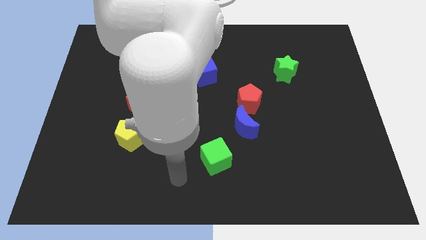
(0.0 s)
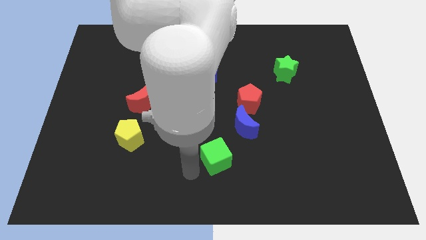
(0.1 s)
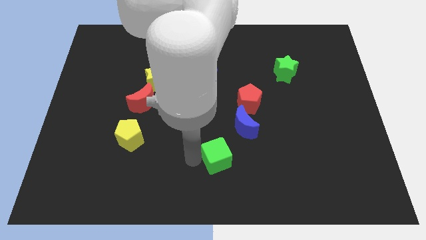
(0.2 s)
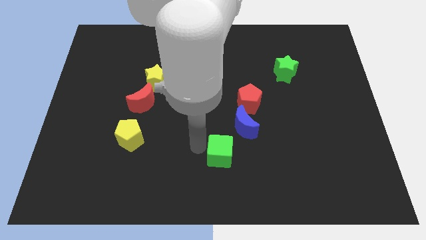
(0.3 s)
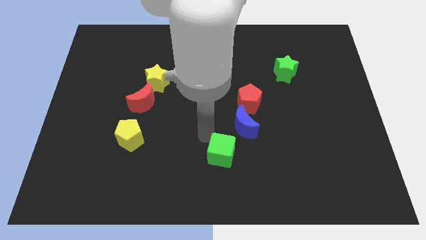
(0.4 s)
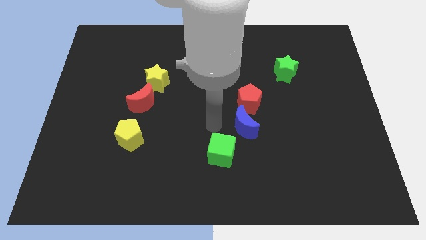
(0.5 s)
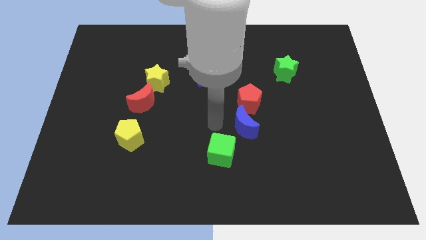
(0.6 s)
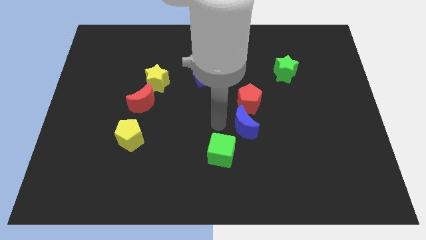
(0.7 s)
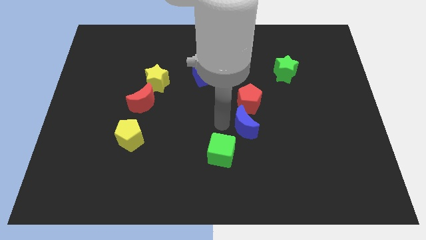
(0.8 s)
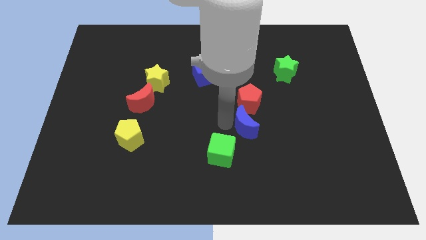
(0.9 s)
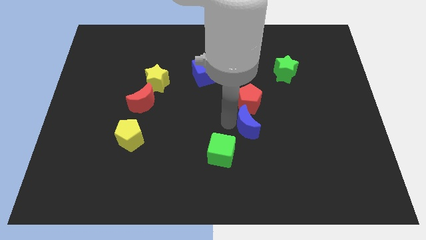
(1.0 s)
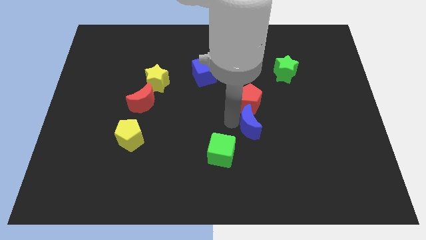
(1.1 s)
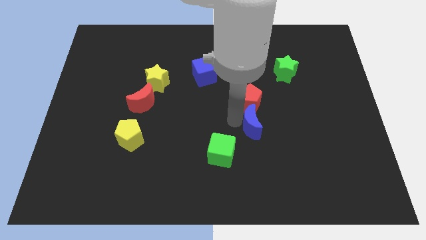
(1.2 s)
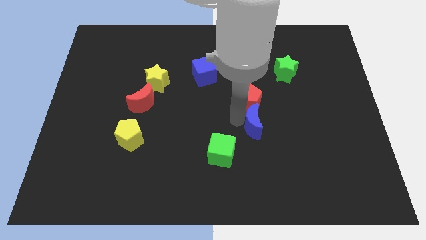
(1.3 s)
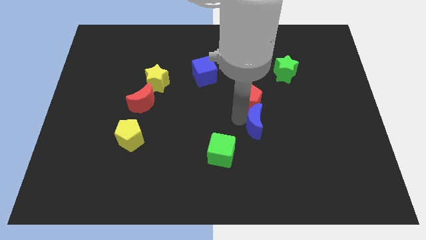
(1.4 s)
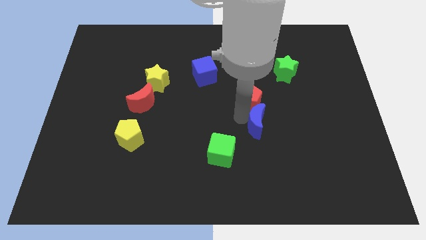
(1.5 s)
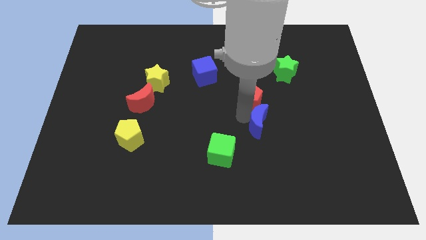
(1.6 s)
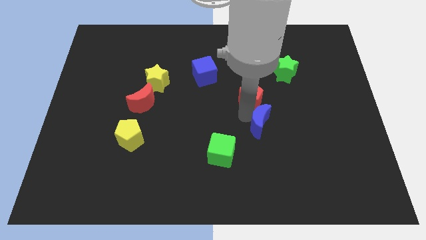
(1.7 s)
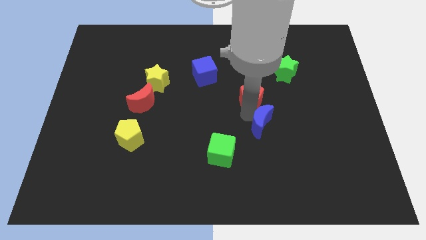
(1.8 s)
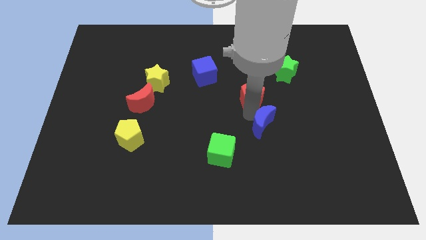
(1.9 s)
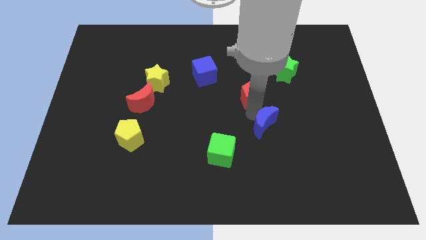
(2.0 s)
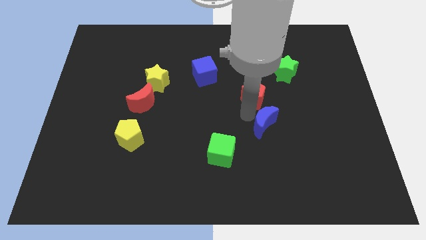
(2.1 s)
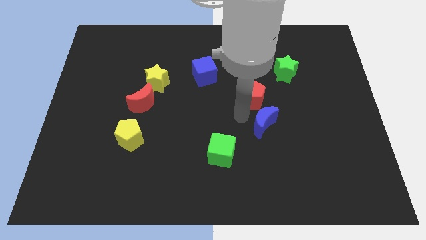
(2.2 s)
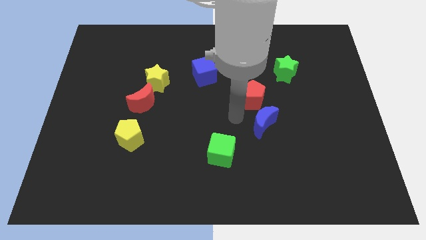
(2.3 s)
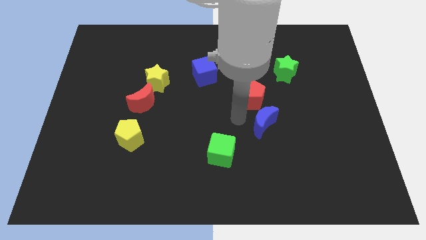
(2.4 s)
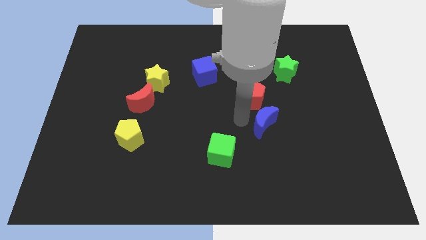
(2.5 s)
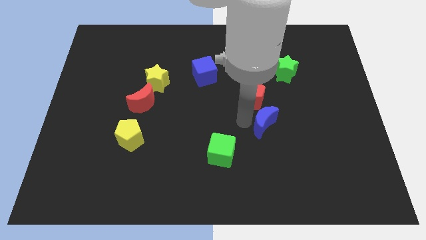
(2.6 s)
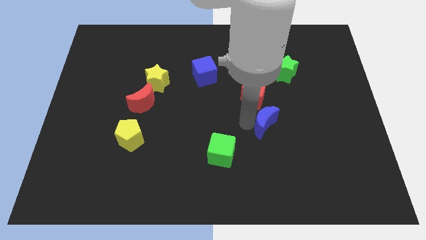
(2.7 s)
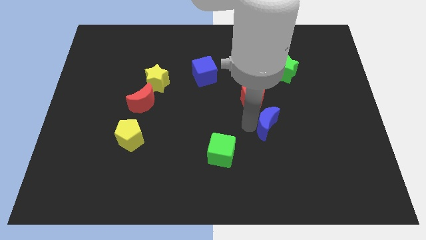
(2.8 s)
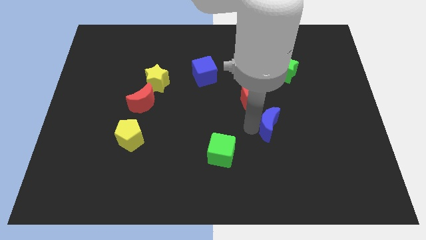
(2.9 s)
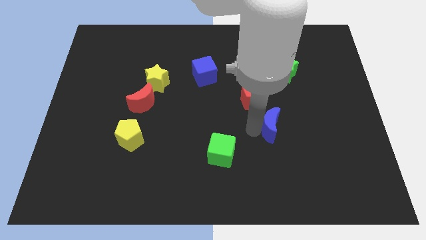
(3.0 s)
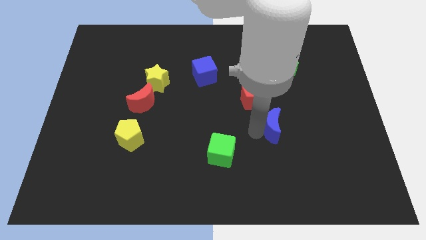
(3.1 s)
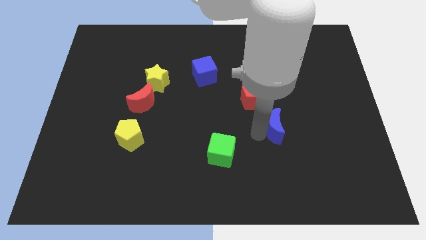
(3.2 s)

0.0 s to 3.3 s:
move the blue moon a little bit right

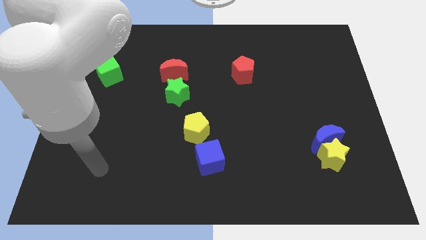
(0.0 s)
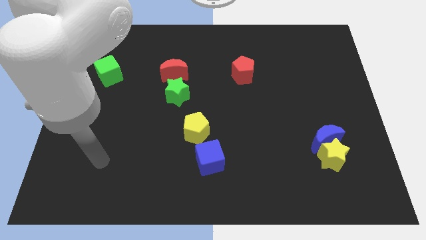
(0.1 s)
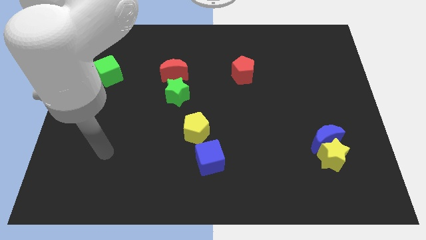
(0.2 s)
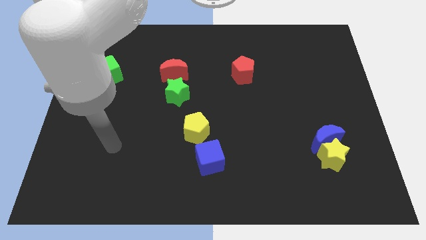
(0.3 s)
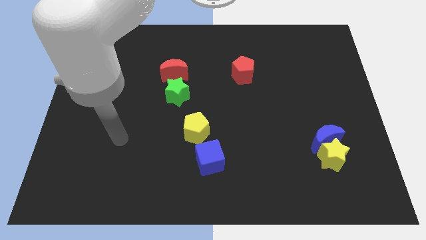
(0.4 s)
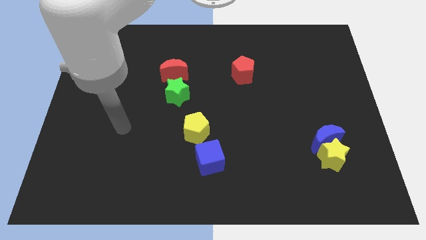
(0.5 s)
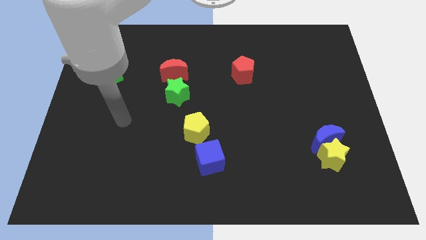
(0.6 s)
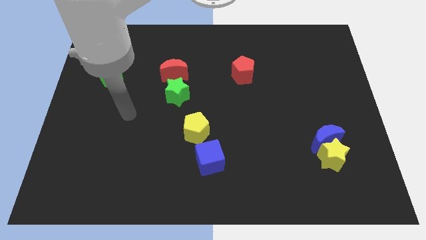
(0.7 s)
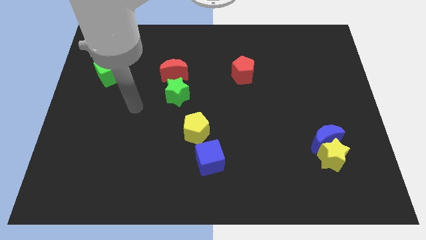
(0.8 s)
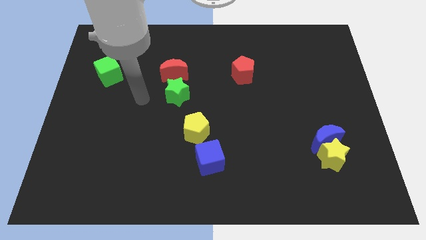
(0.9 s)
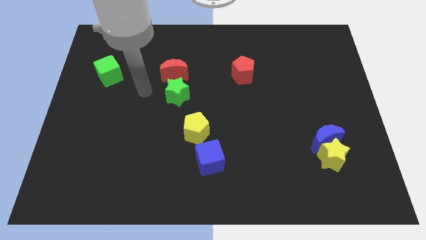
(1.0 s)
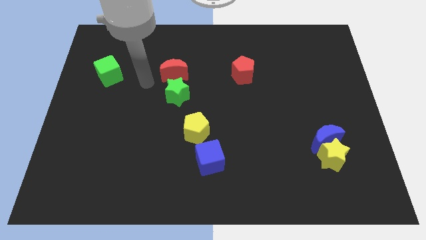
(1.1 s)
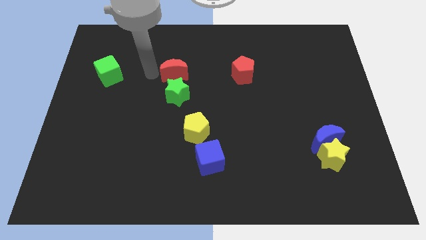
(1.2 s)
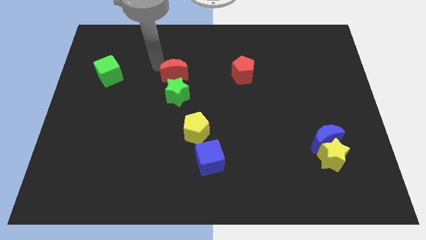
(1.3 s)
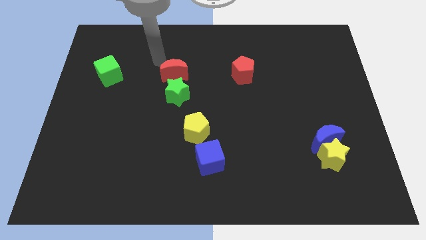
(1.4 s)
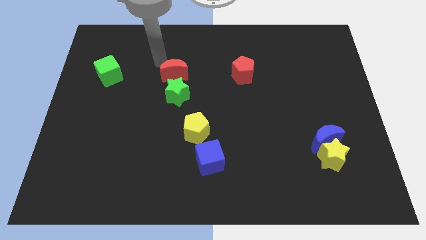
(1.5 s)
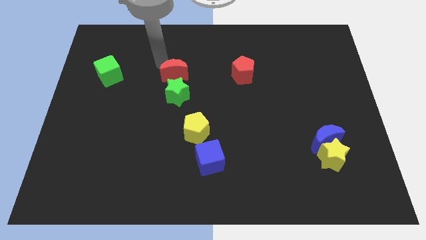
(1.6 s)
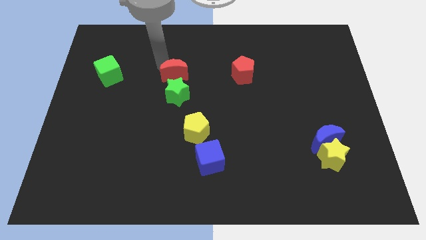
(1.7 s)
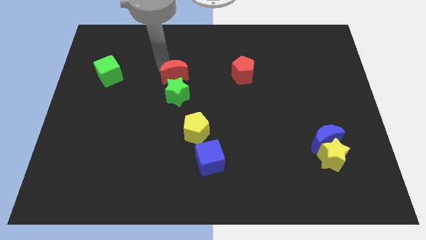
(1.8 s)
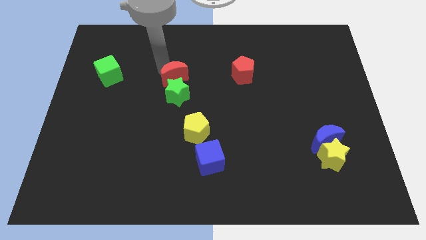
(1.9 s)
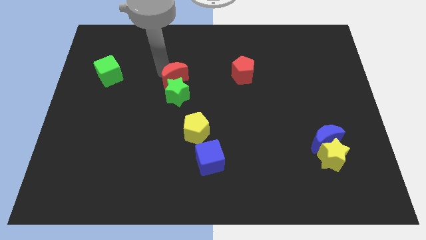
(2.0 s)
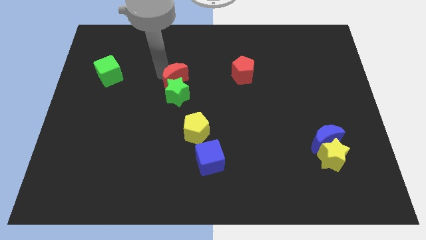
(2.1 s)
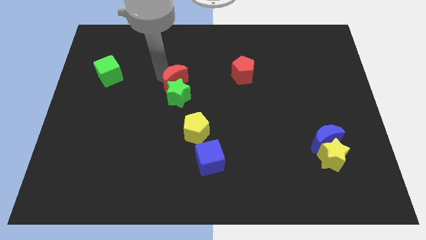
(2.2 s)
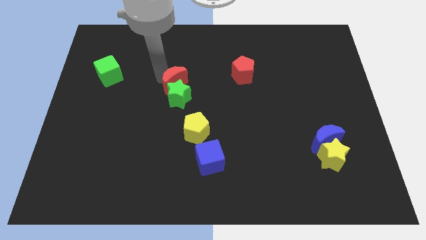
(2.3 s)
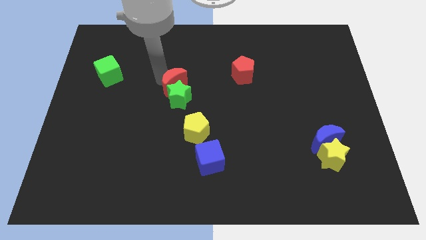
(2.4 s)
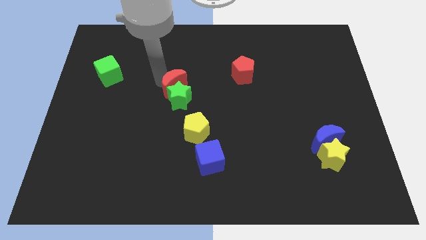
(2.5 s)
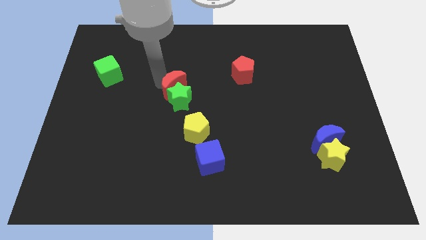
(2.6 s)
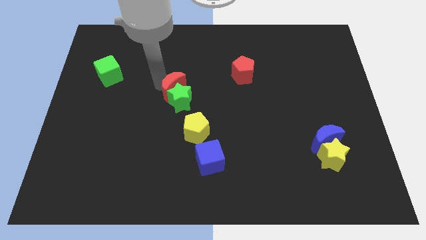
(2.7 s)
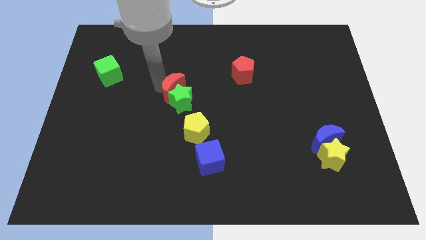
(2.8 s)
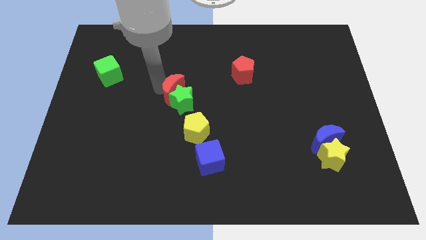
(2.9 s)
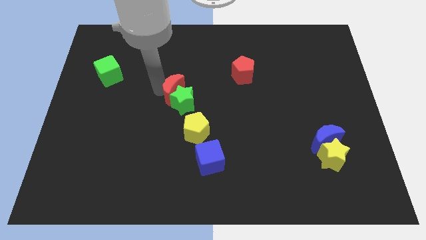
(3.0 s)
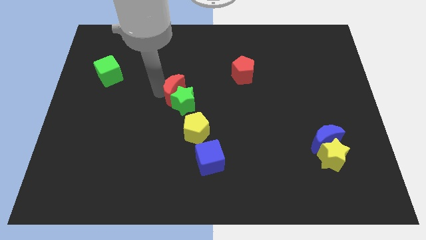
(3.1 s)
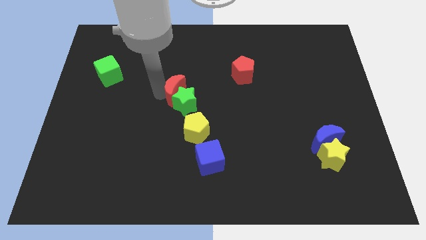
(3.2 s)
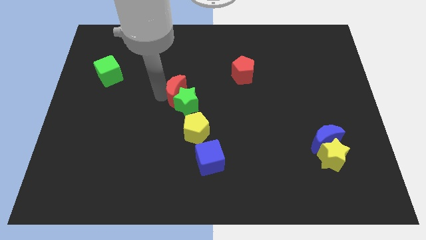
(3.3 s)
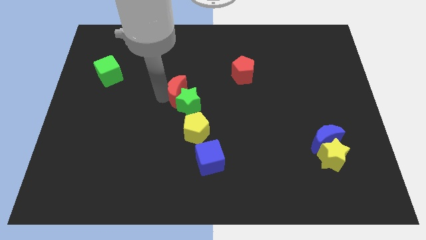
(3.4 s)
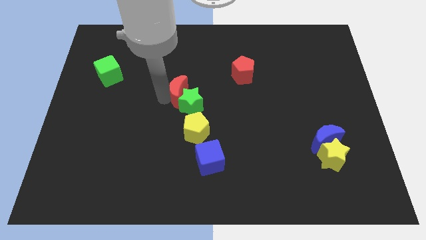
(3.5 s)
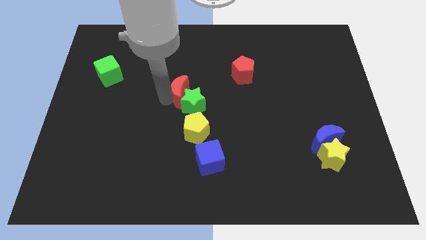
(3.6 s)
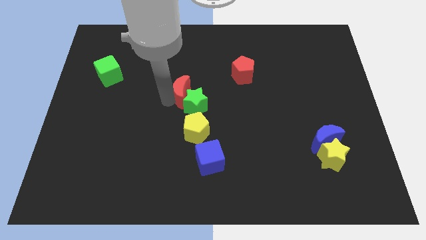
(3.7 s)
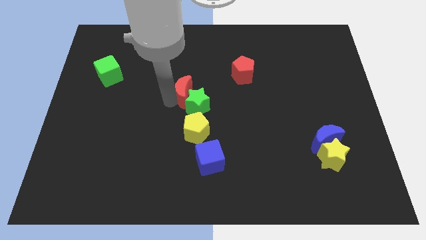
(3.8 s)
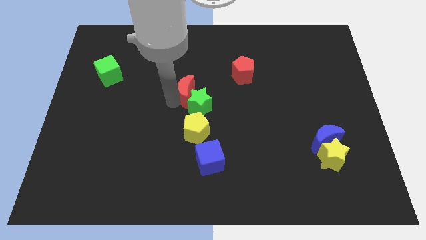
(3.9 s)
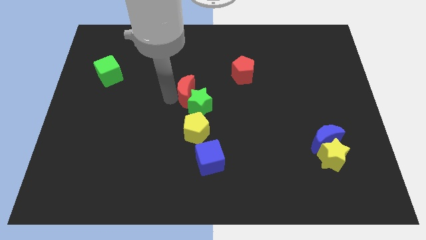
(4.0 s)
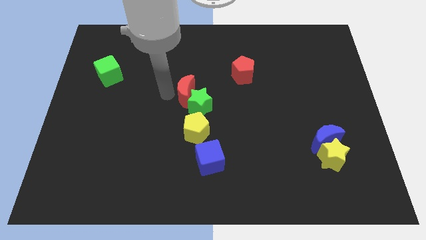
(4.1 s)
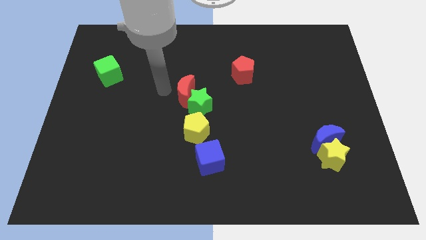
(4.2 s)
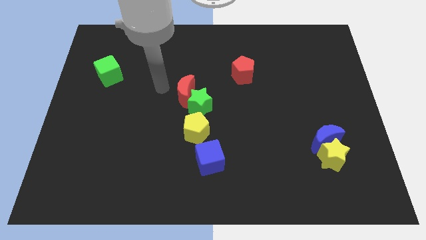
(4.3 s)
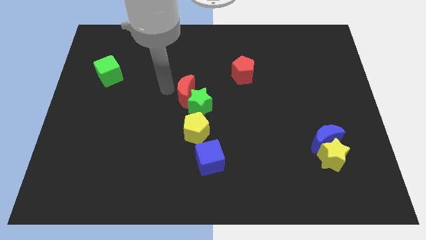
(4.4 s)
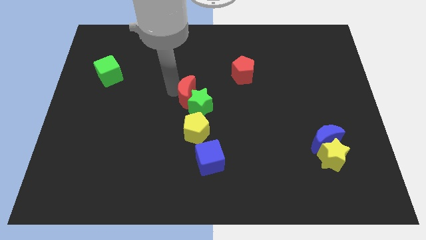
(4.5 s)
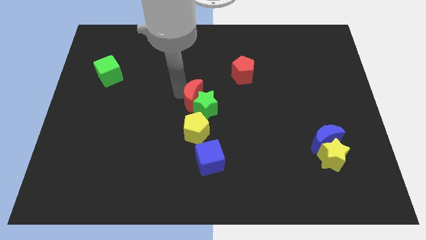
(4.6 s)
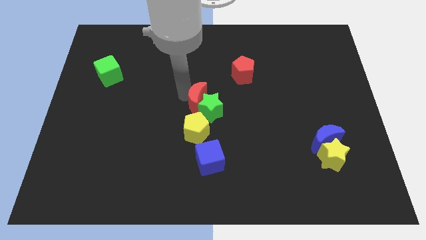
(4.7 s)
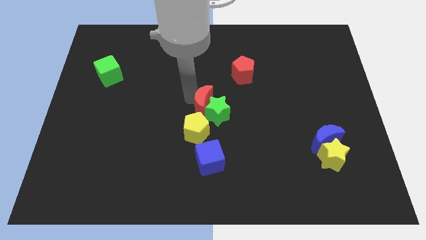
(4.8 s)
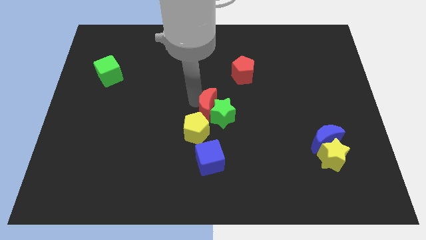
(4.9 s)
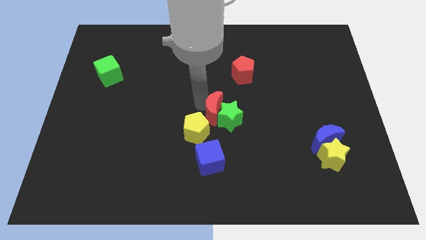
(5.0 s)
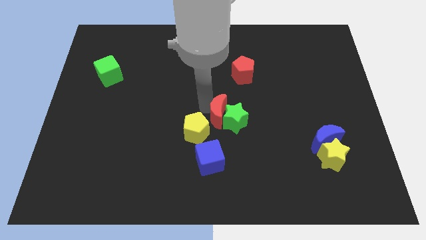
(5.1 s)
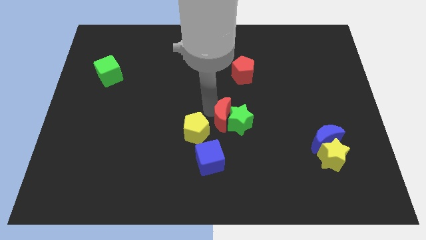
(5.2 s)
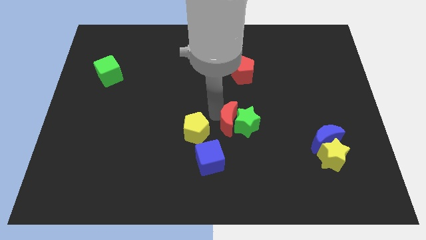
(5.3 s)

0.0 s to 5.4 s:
push the red moon downwards and then right
